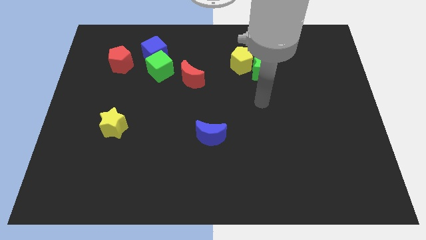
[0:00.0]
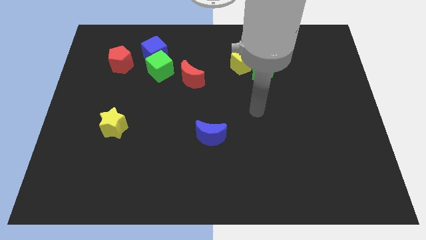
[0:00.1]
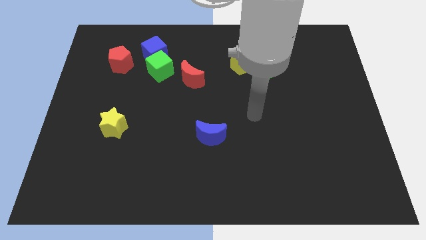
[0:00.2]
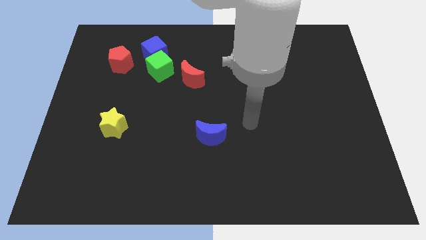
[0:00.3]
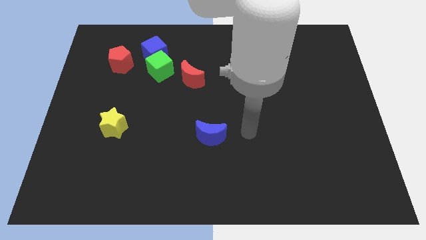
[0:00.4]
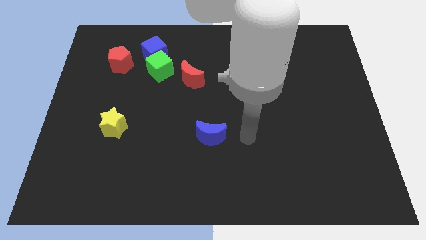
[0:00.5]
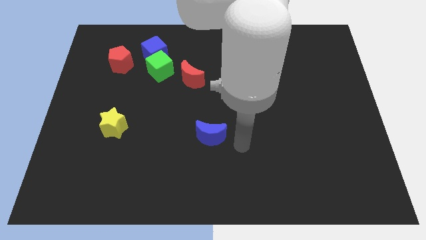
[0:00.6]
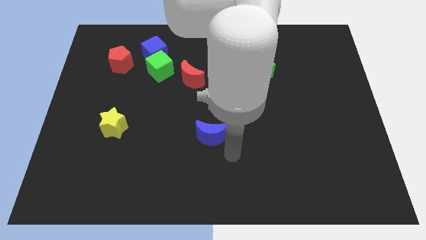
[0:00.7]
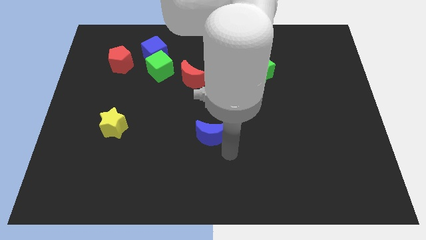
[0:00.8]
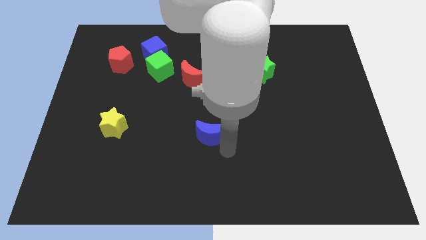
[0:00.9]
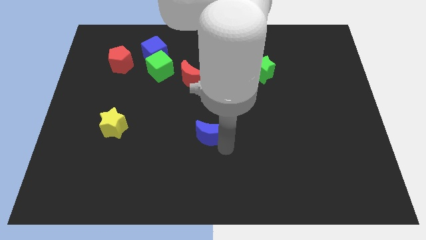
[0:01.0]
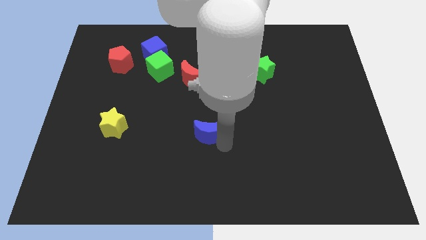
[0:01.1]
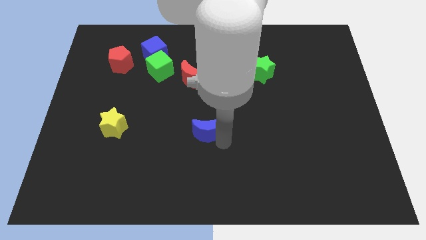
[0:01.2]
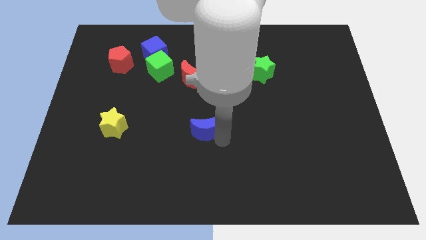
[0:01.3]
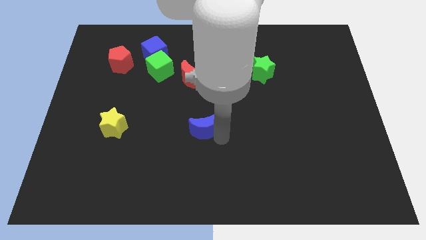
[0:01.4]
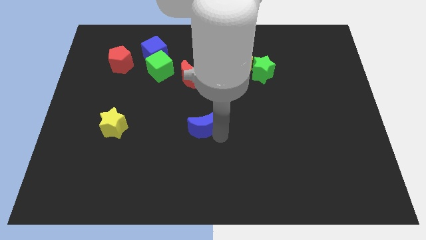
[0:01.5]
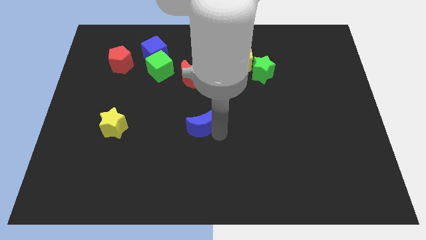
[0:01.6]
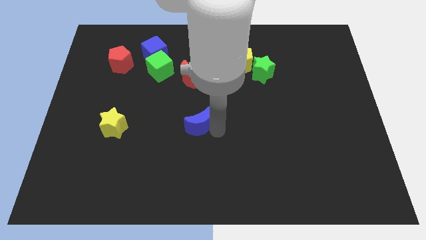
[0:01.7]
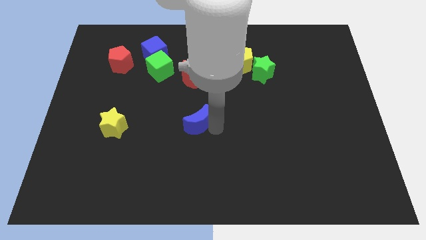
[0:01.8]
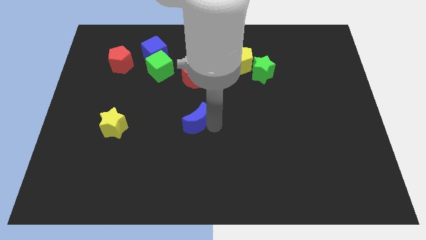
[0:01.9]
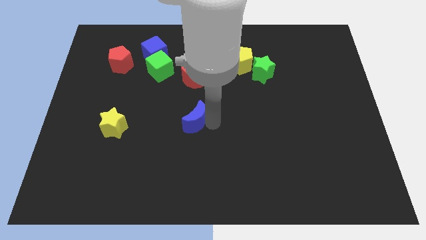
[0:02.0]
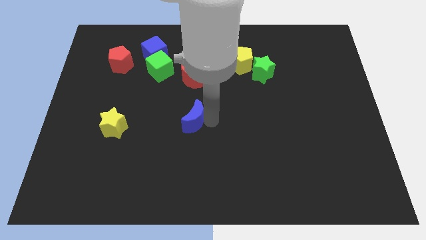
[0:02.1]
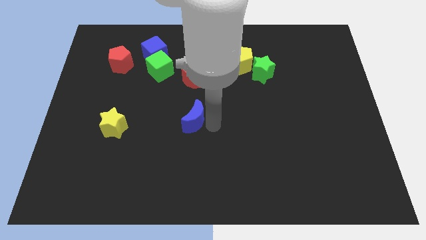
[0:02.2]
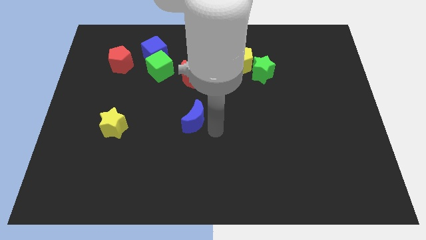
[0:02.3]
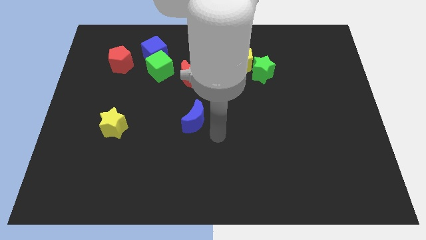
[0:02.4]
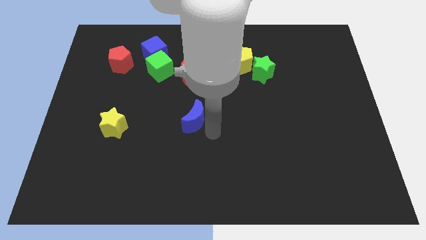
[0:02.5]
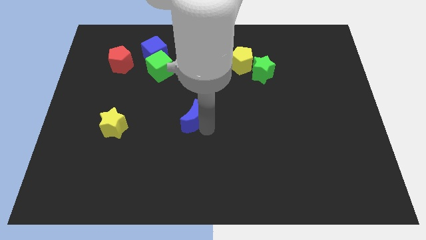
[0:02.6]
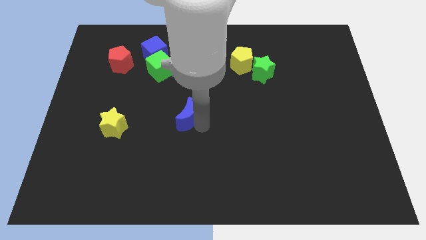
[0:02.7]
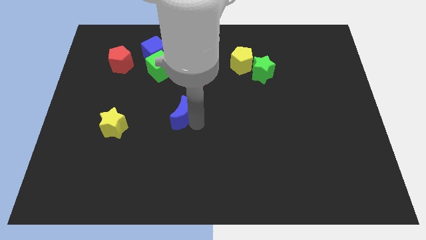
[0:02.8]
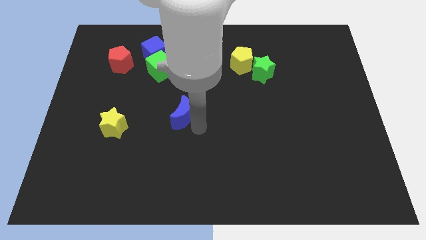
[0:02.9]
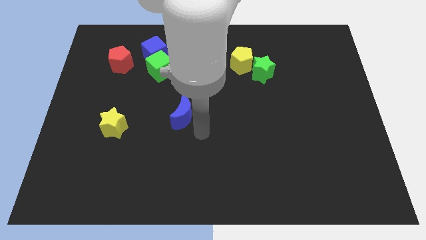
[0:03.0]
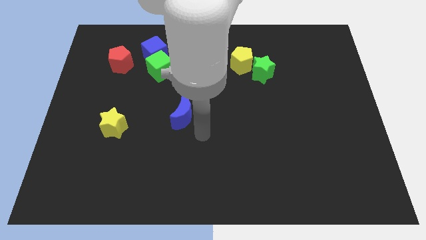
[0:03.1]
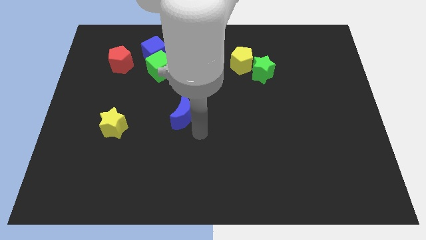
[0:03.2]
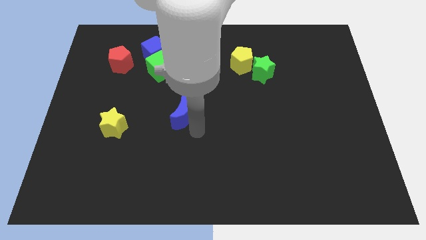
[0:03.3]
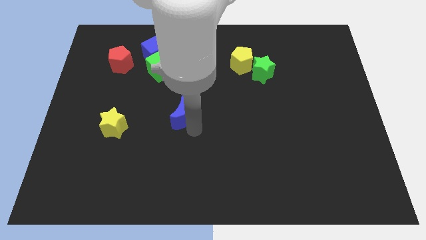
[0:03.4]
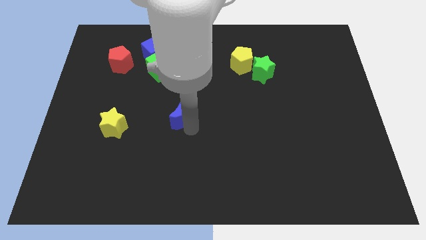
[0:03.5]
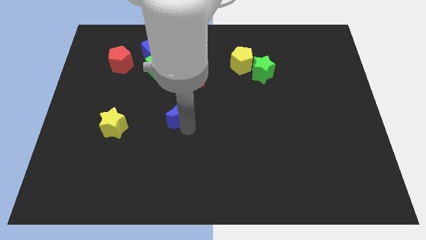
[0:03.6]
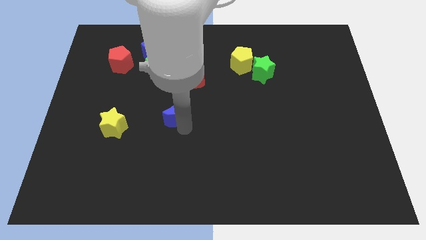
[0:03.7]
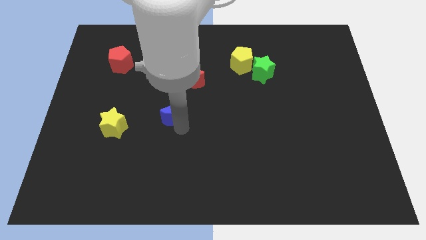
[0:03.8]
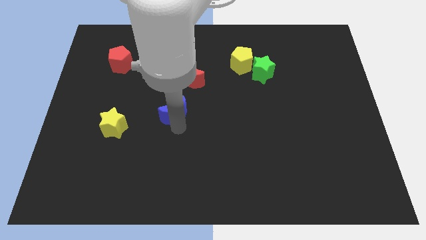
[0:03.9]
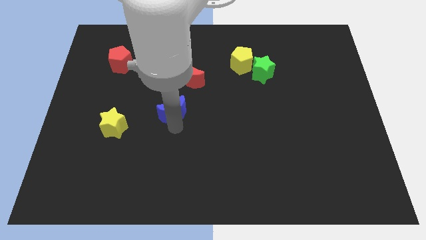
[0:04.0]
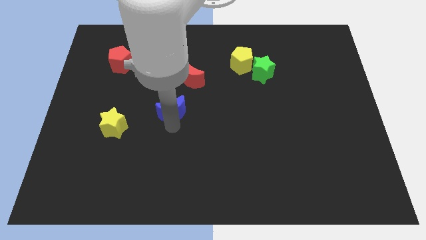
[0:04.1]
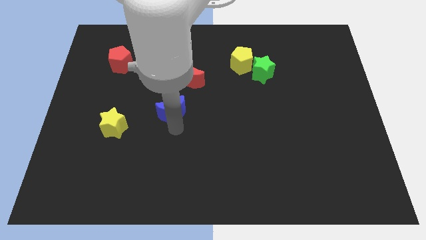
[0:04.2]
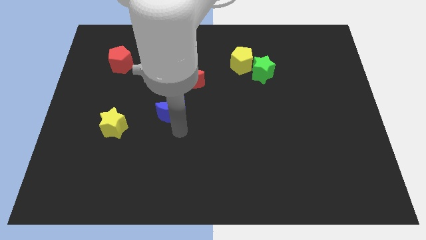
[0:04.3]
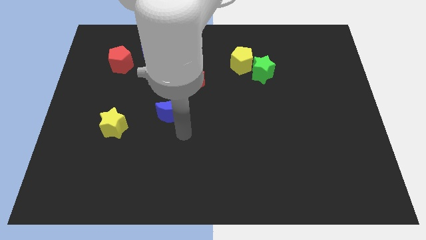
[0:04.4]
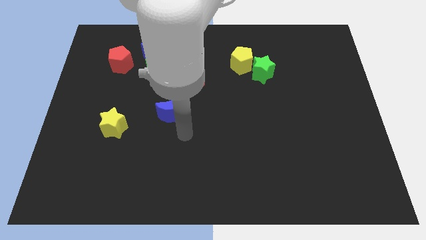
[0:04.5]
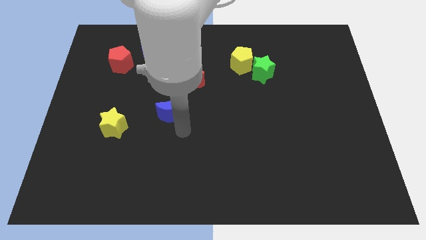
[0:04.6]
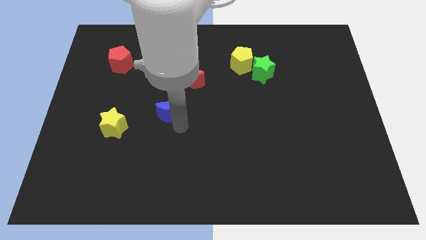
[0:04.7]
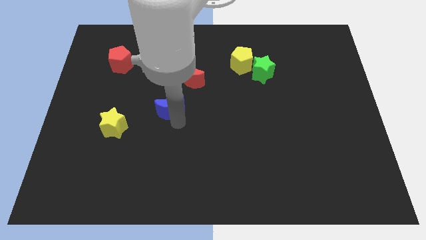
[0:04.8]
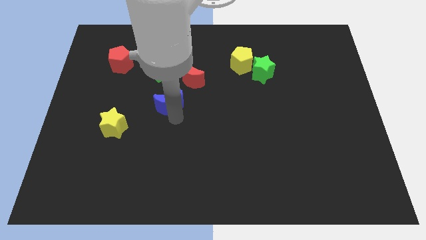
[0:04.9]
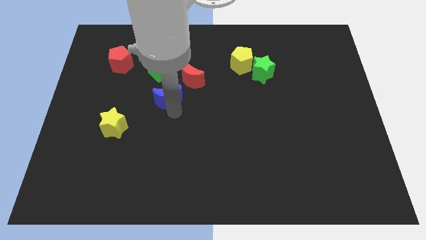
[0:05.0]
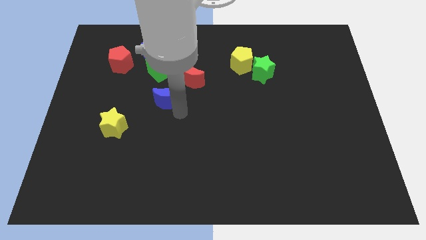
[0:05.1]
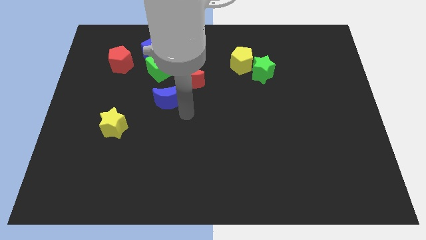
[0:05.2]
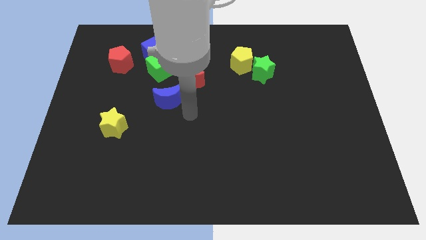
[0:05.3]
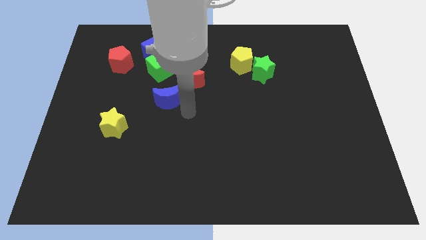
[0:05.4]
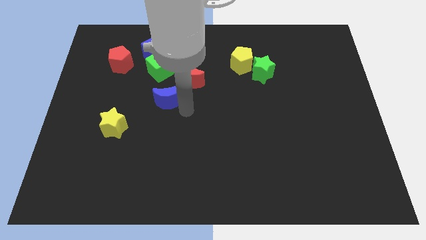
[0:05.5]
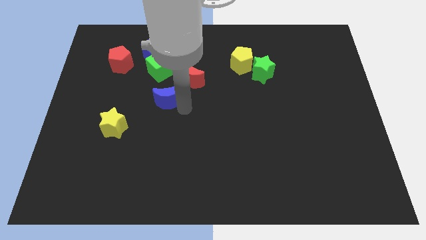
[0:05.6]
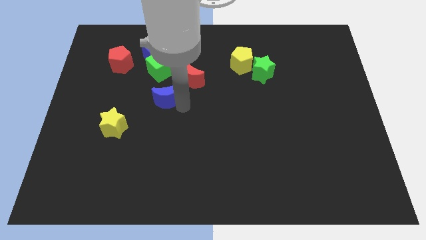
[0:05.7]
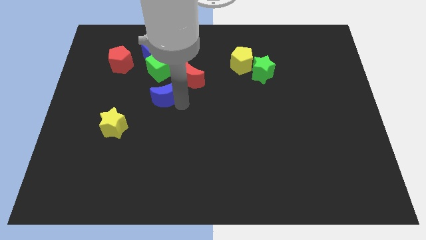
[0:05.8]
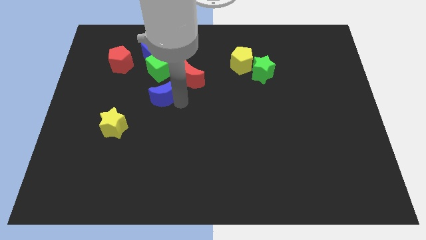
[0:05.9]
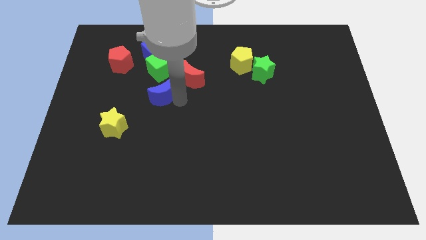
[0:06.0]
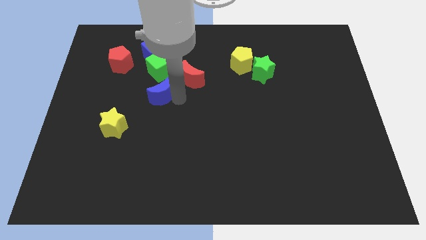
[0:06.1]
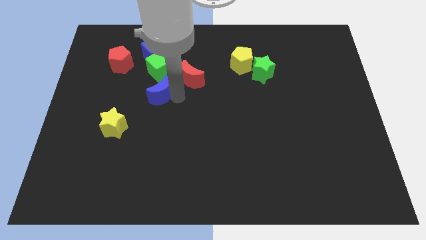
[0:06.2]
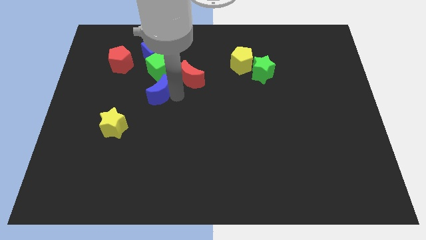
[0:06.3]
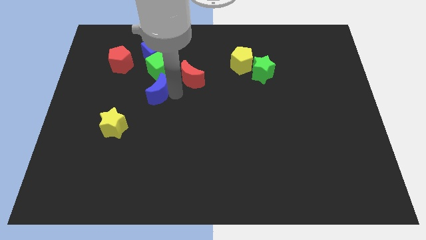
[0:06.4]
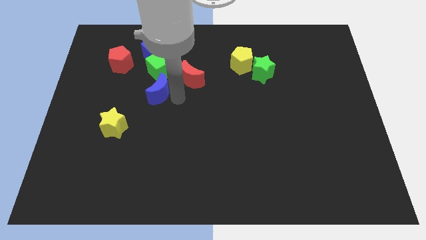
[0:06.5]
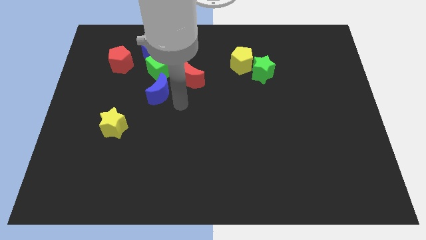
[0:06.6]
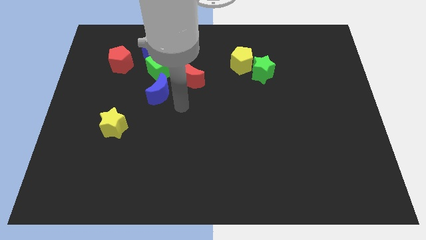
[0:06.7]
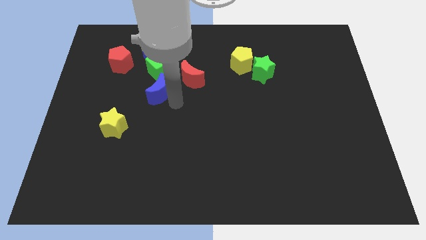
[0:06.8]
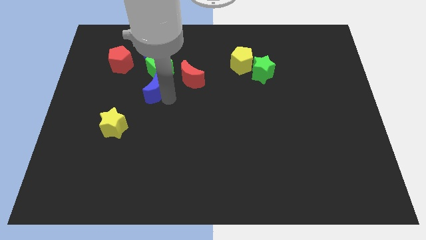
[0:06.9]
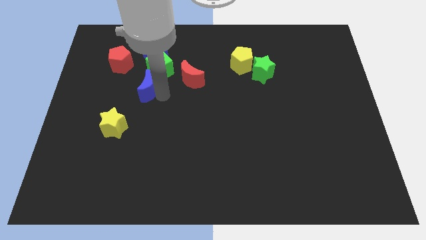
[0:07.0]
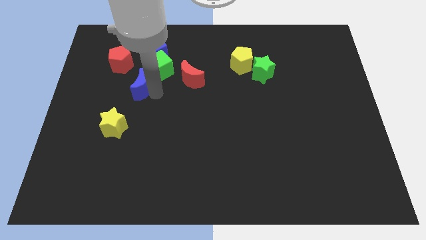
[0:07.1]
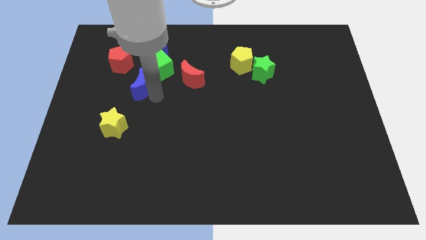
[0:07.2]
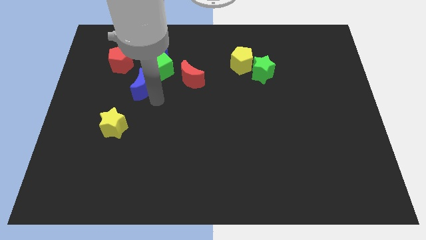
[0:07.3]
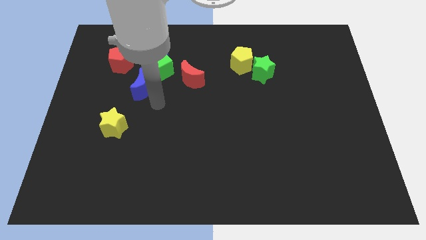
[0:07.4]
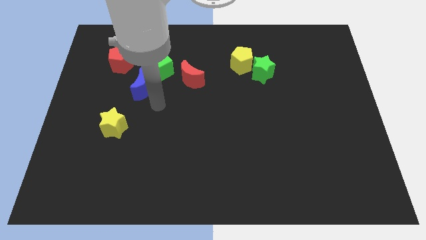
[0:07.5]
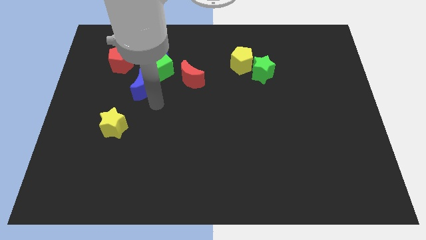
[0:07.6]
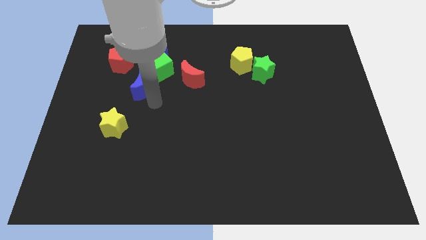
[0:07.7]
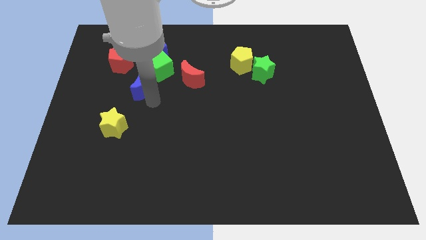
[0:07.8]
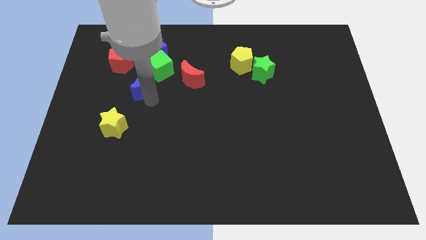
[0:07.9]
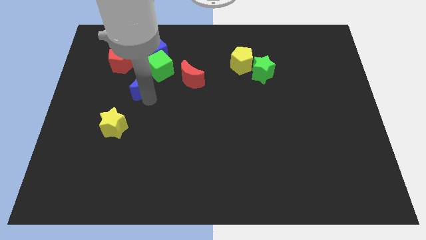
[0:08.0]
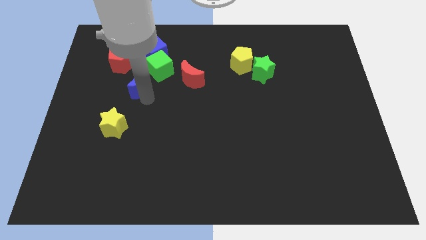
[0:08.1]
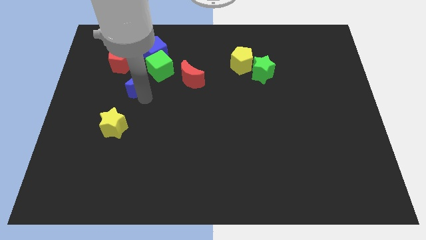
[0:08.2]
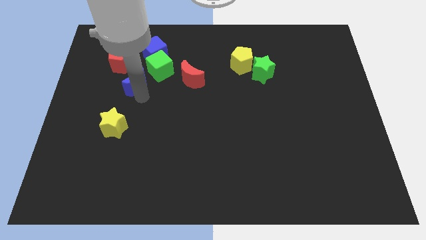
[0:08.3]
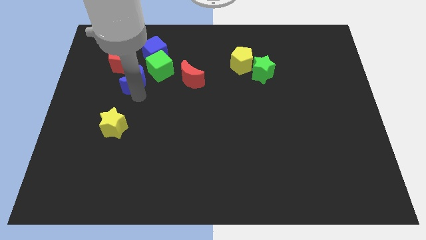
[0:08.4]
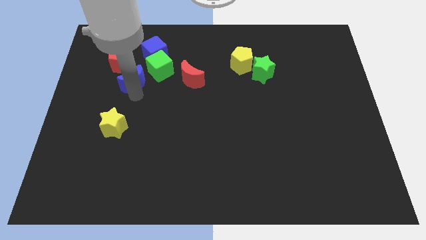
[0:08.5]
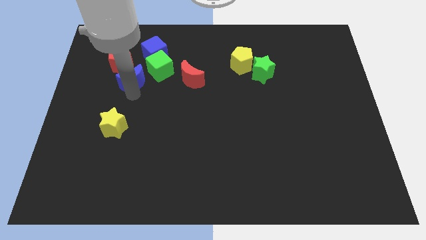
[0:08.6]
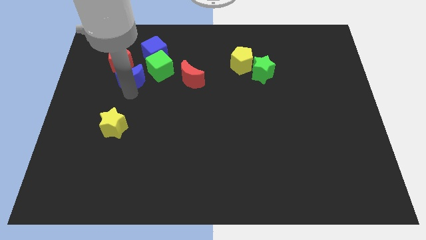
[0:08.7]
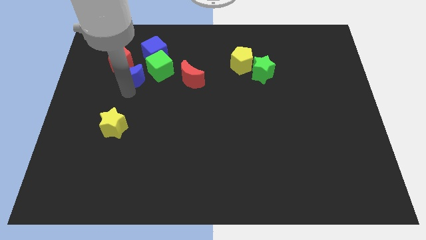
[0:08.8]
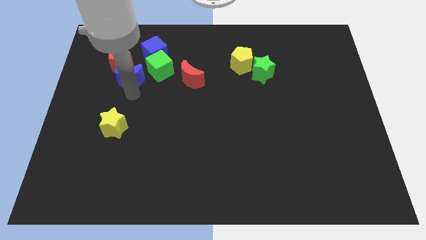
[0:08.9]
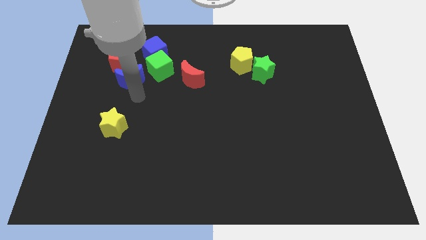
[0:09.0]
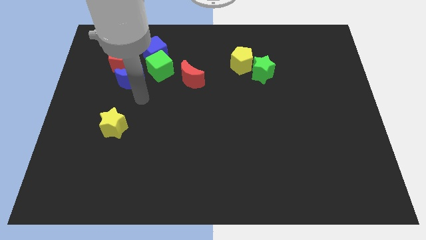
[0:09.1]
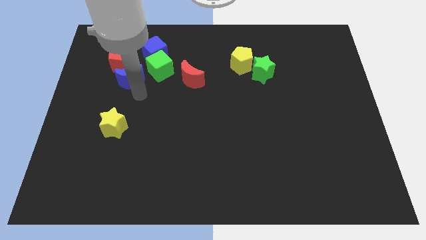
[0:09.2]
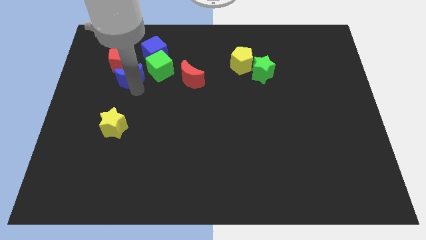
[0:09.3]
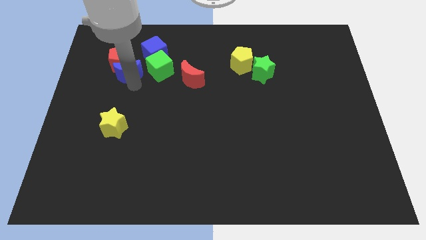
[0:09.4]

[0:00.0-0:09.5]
put the blue moon next to the red pentagon
